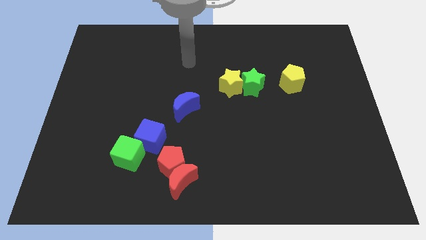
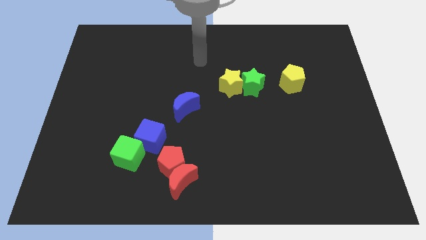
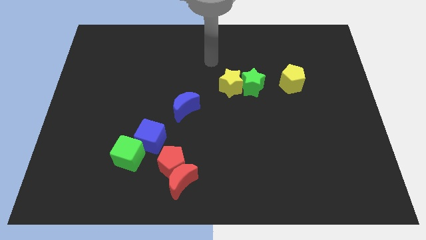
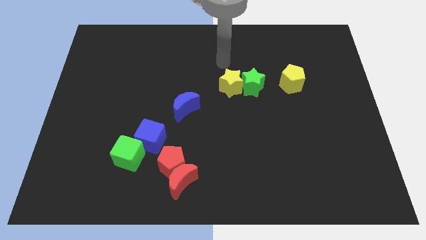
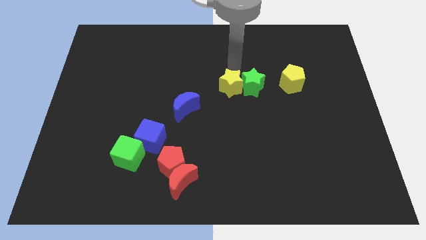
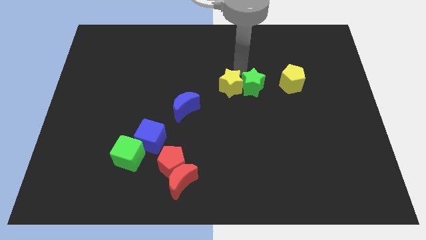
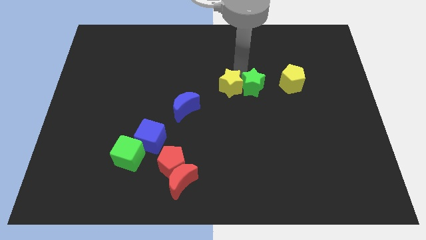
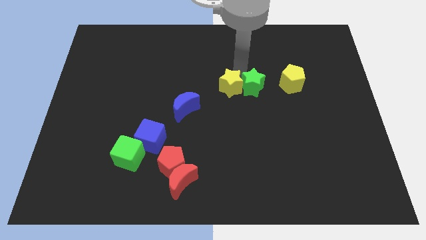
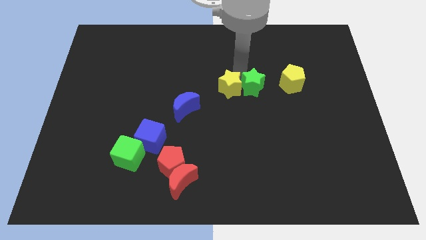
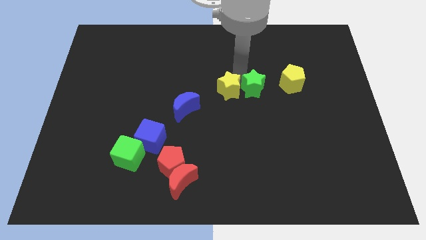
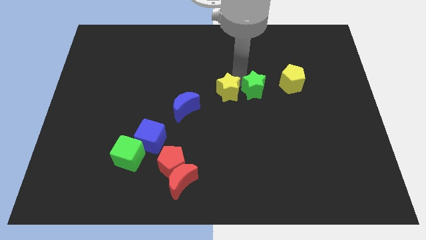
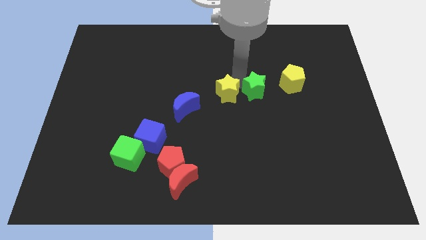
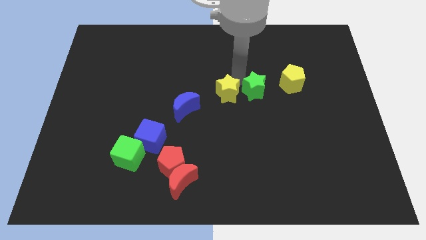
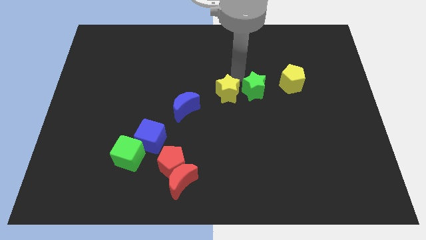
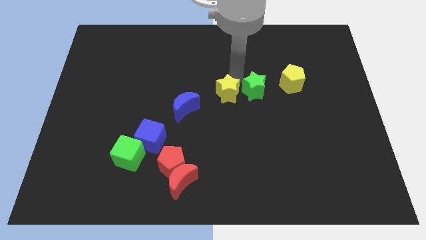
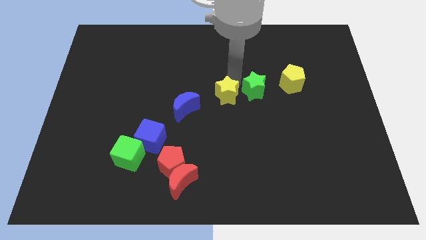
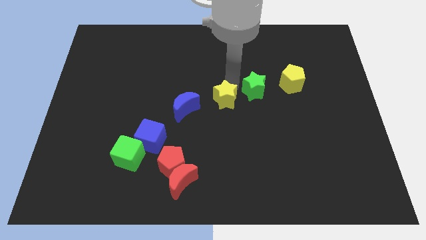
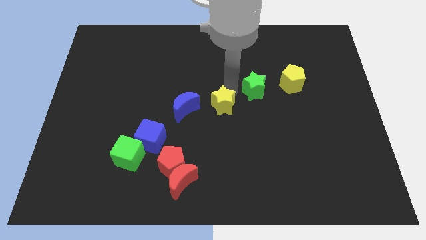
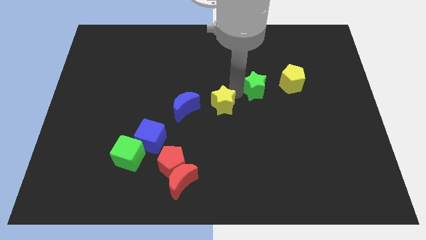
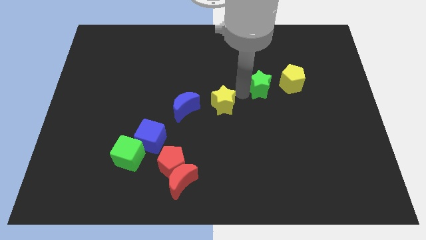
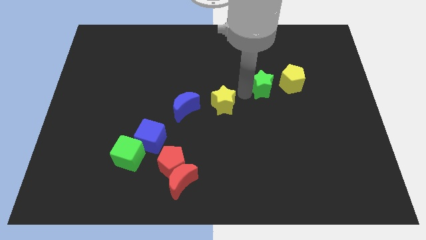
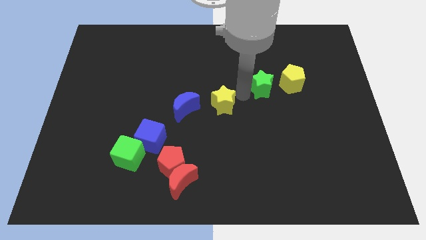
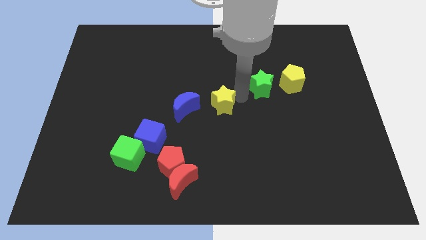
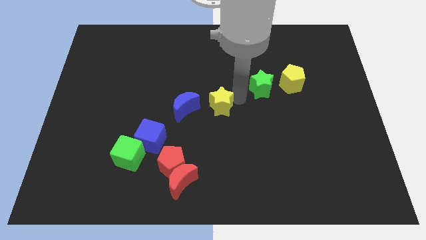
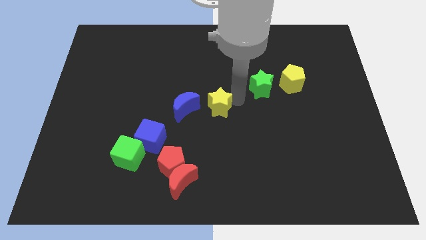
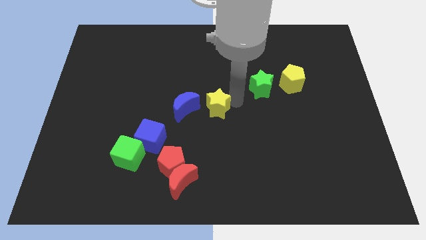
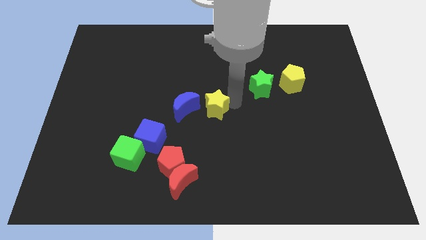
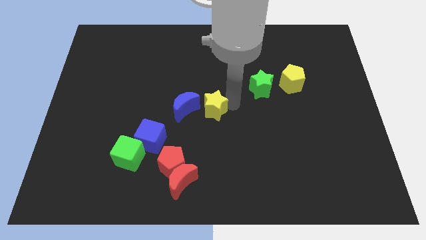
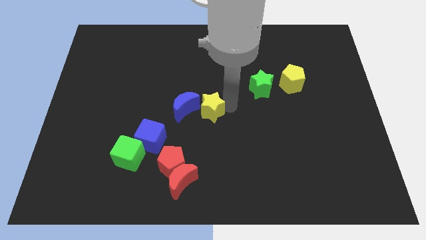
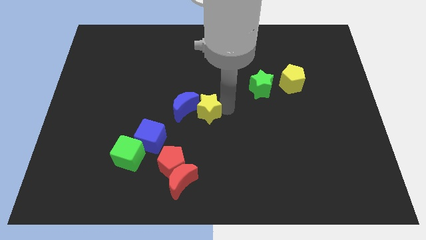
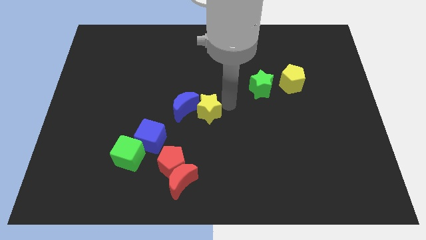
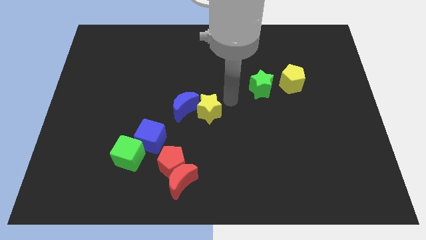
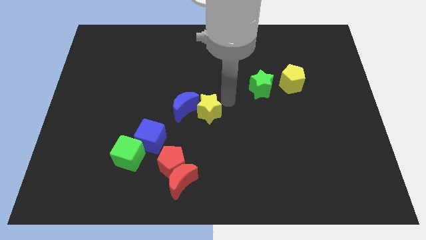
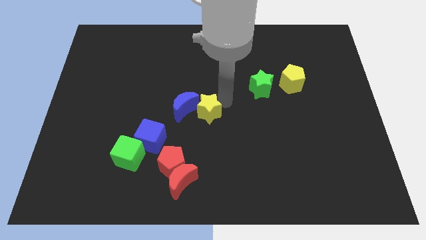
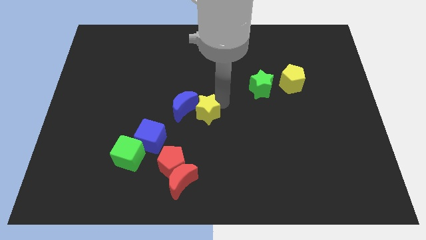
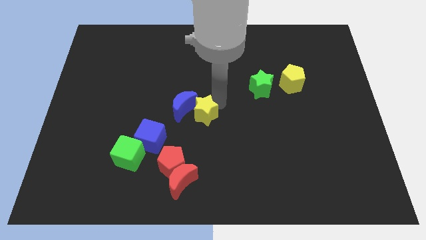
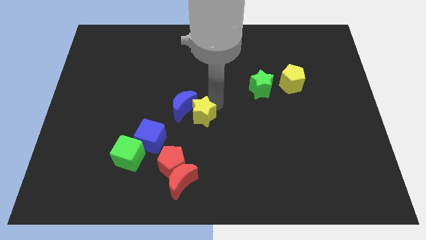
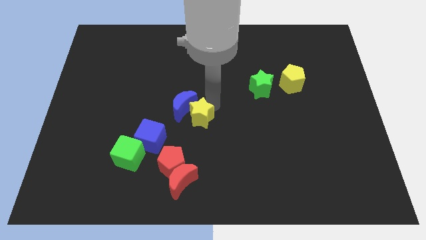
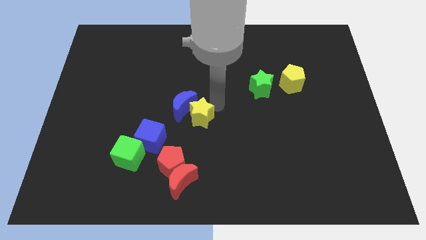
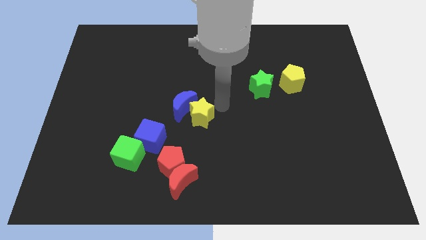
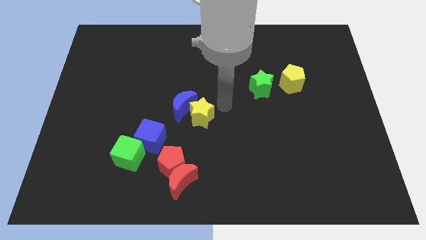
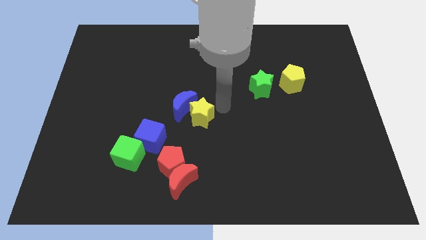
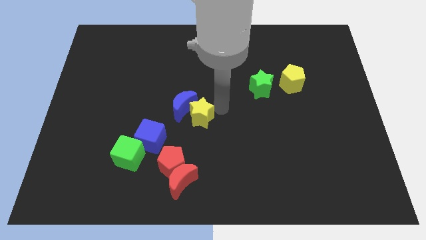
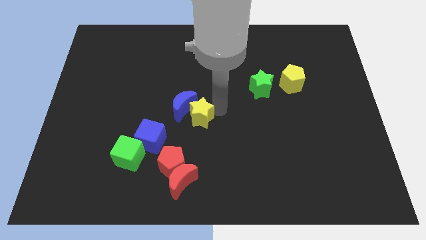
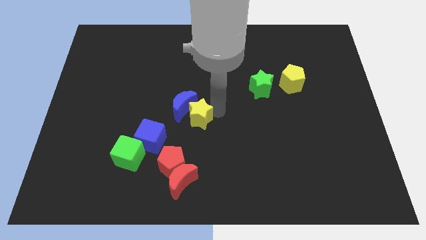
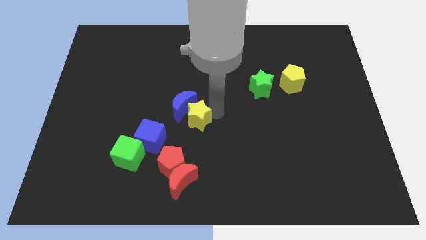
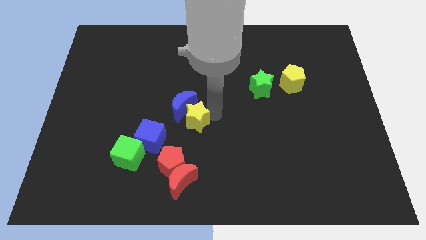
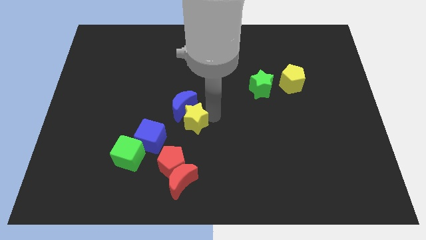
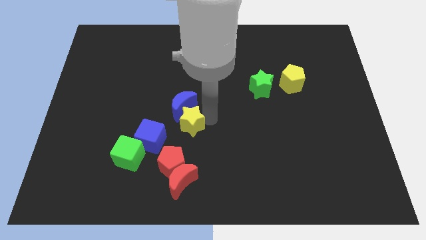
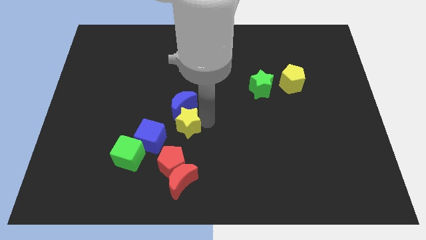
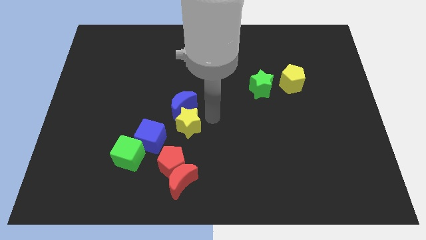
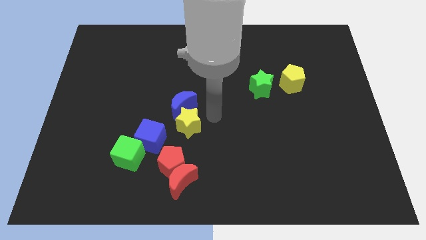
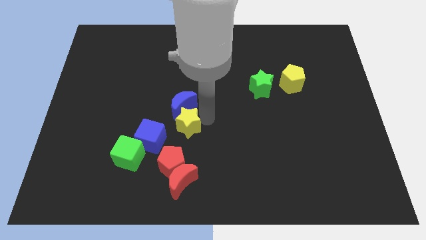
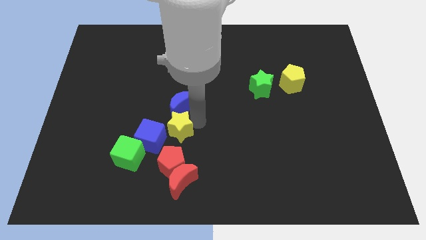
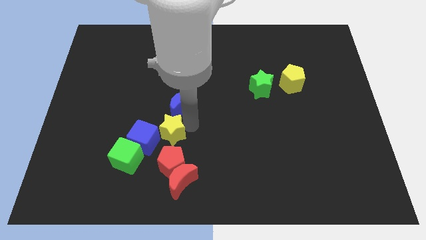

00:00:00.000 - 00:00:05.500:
push the yellow star to the blue cube

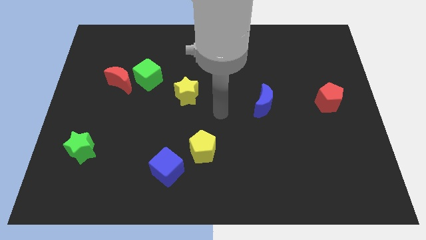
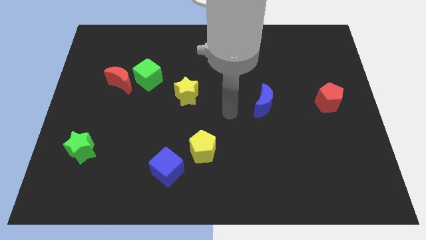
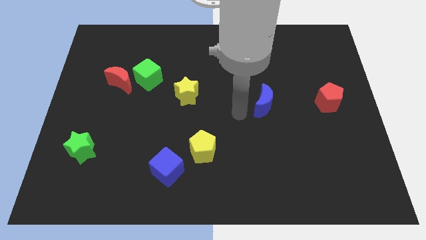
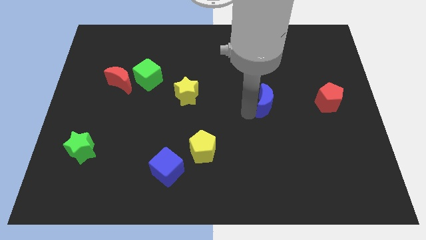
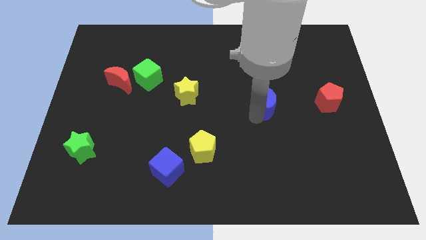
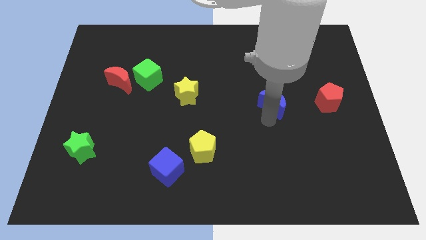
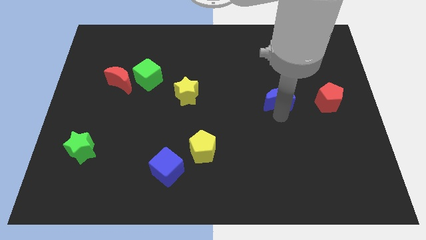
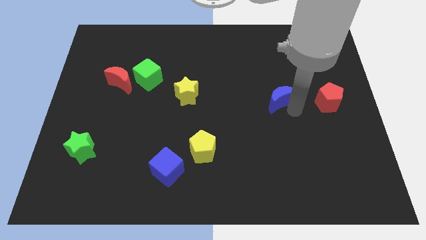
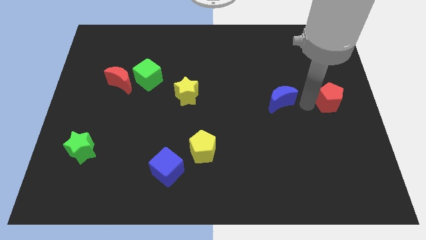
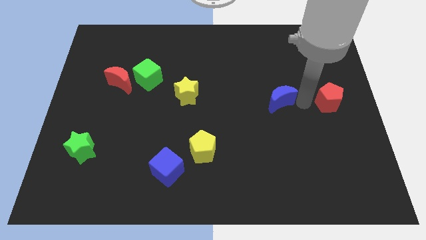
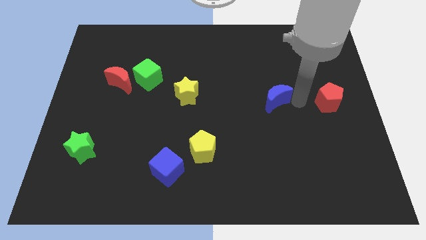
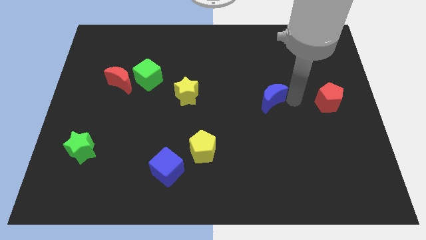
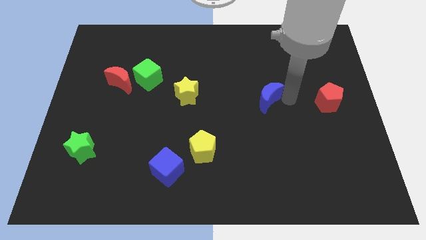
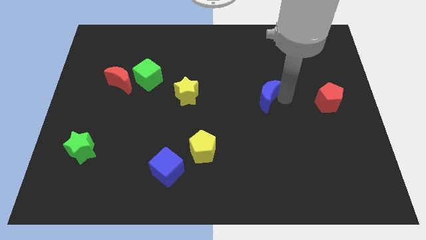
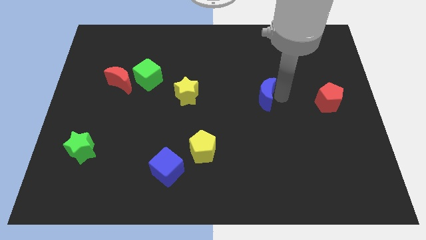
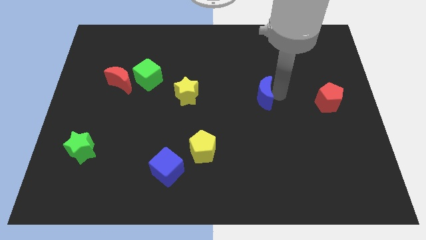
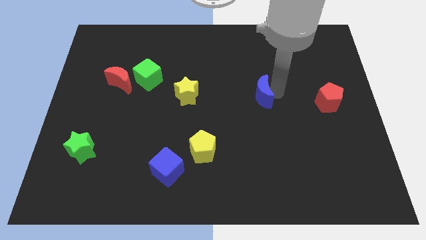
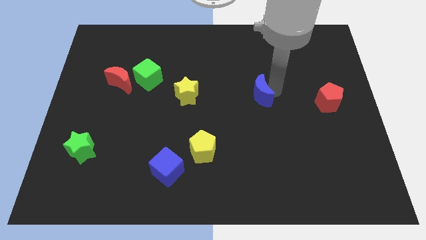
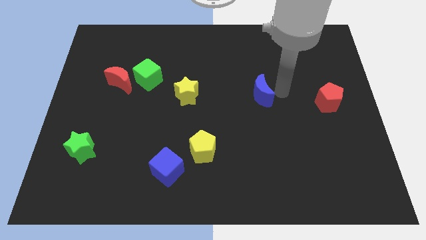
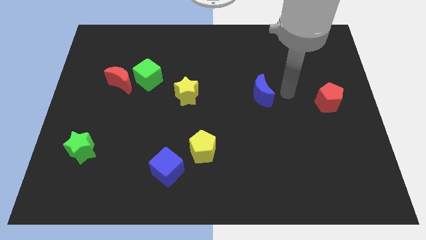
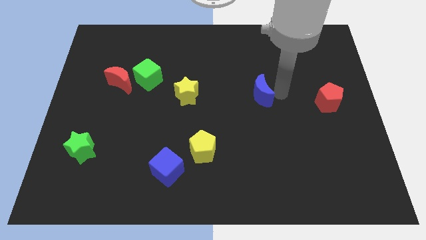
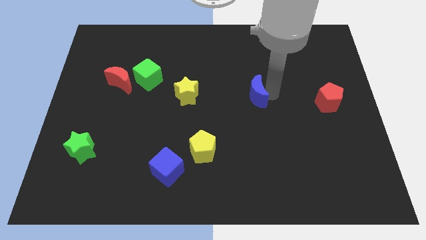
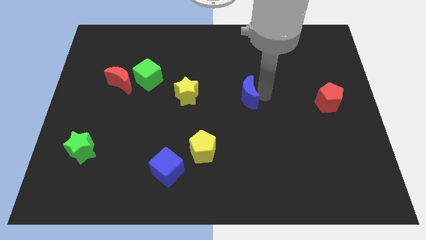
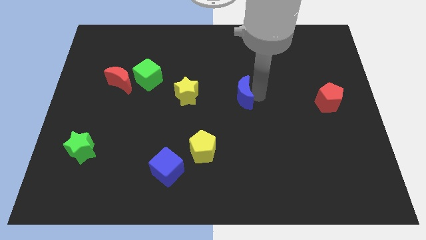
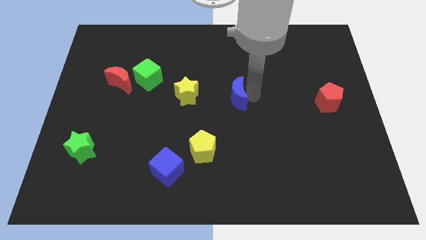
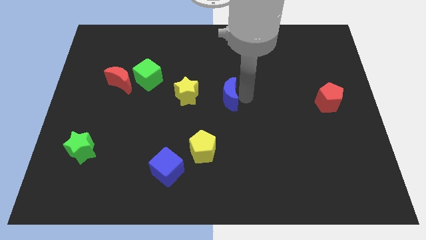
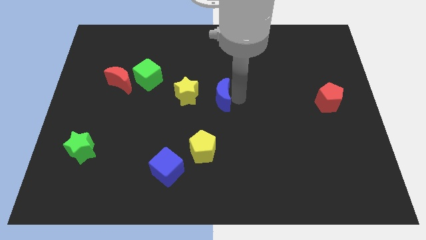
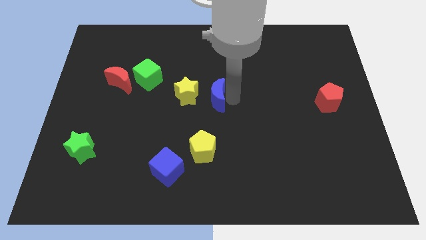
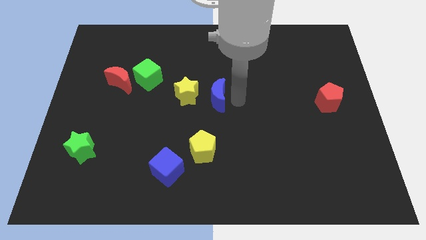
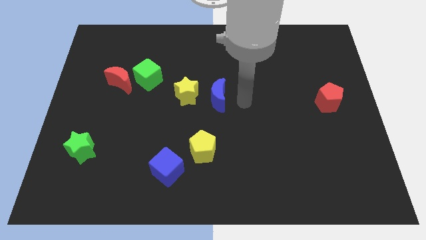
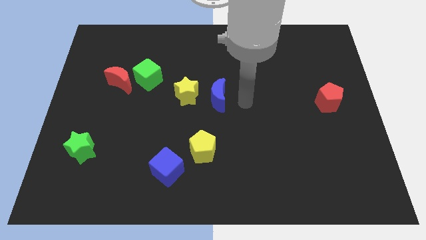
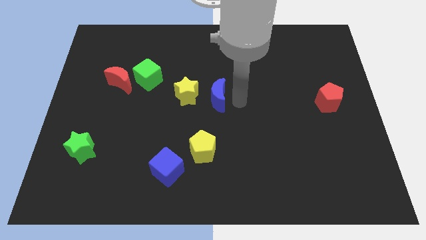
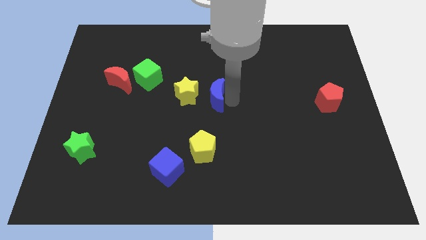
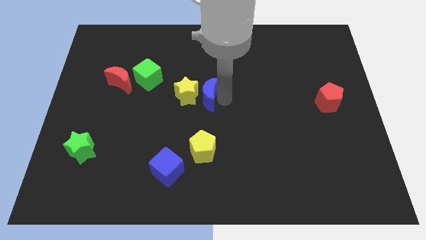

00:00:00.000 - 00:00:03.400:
move the blue moon to the yellow star
